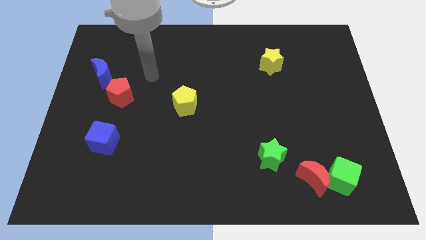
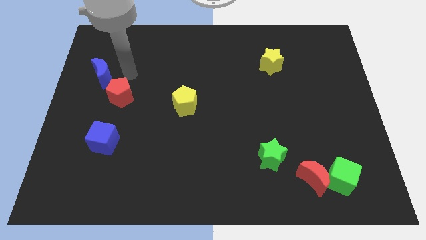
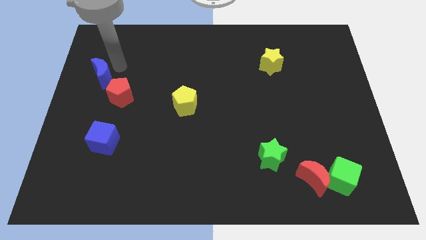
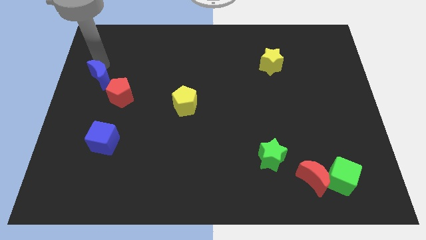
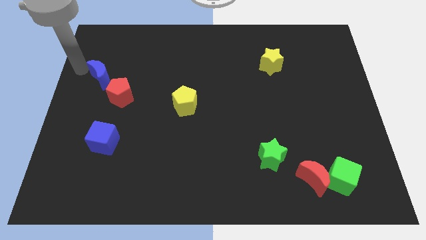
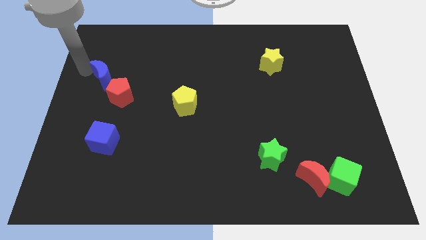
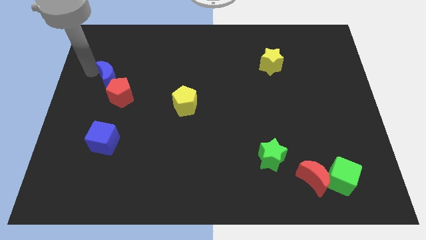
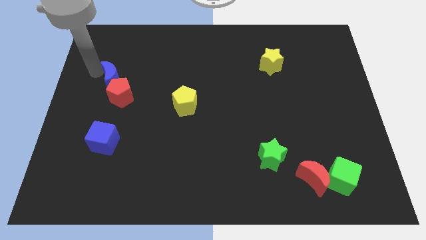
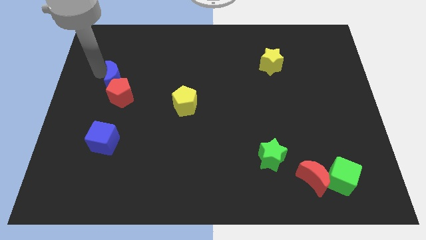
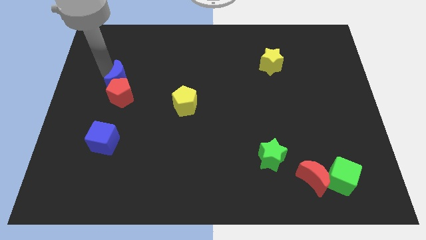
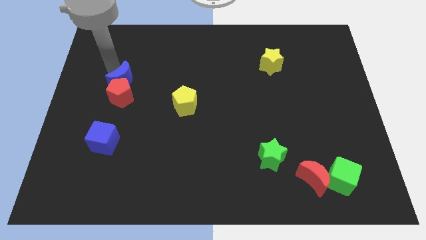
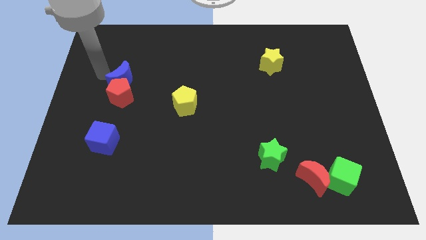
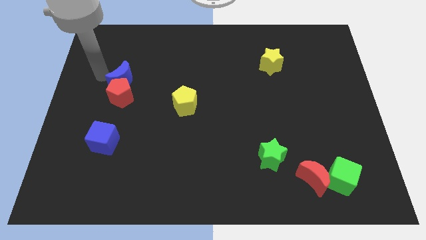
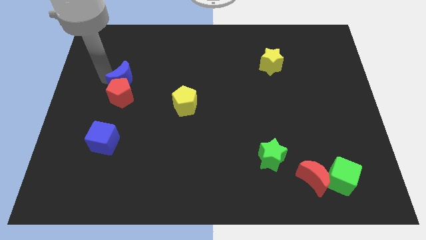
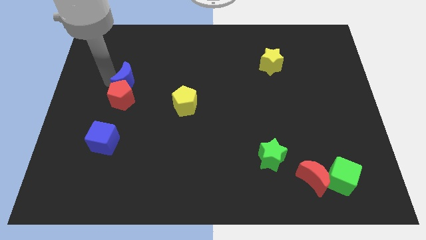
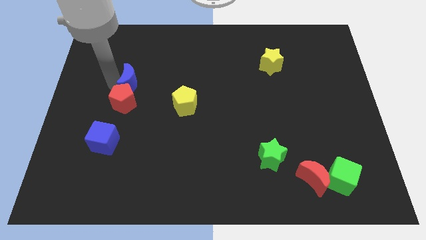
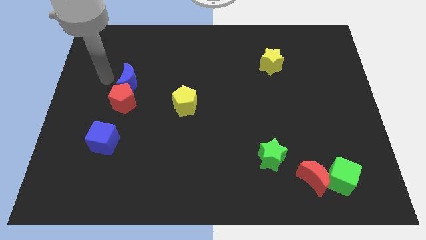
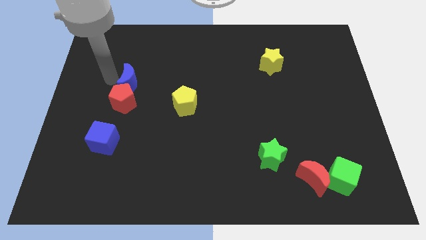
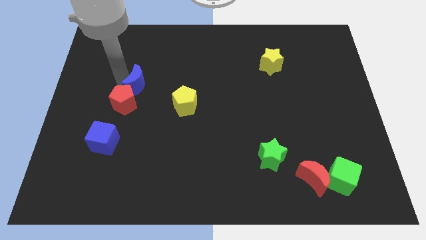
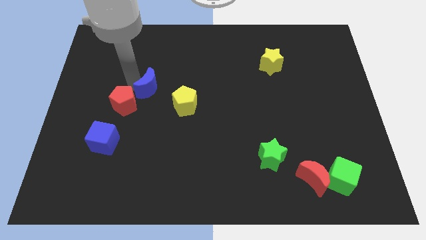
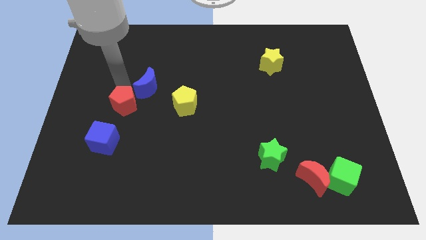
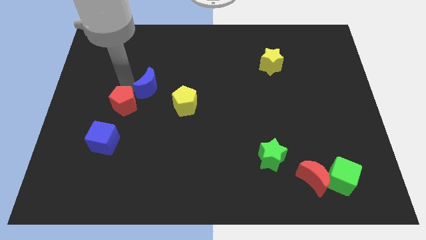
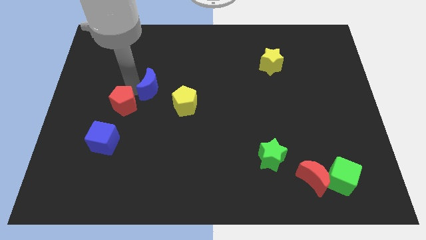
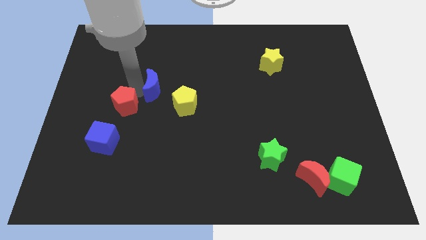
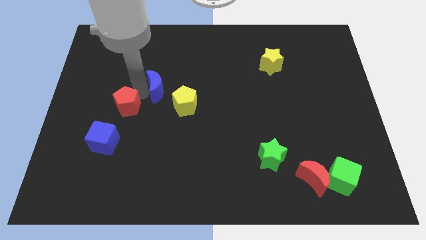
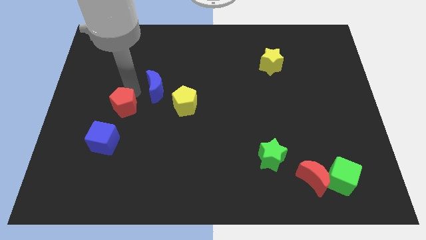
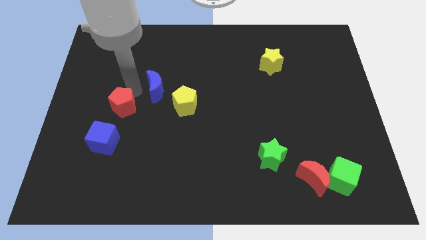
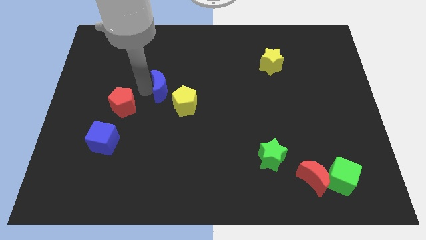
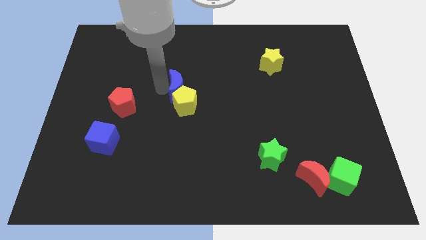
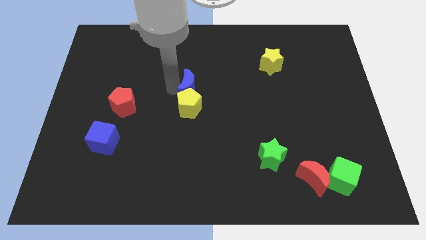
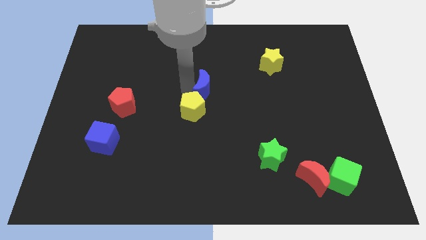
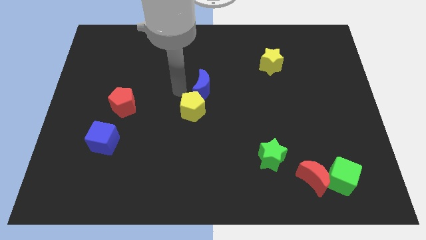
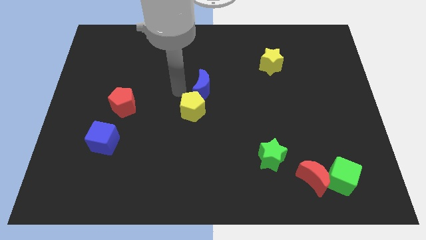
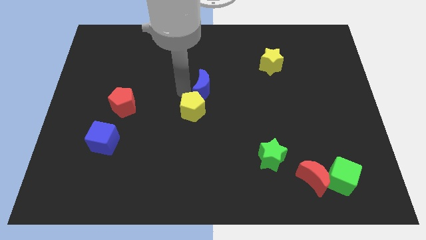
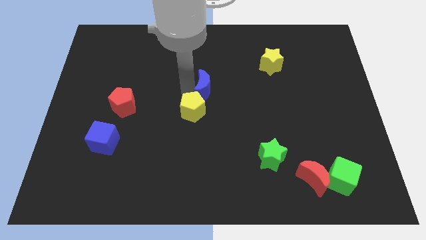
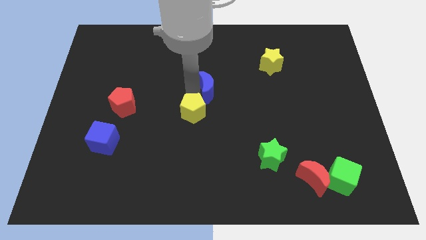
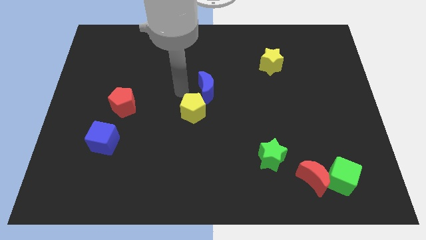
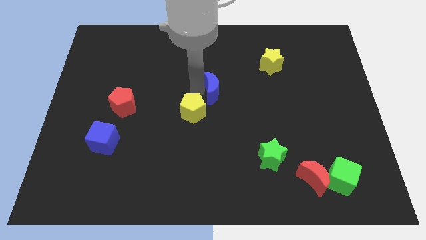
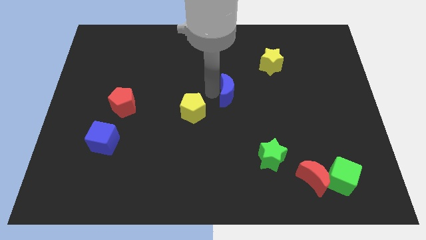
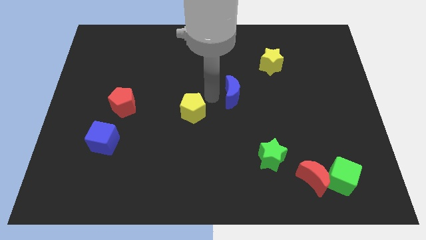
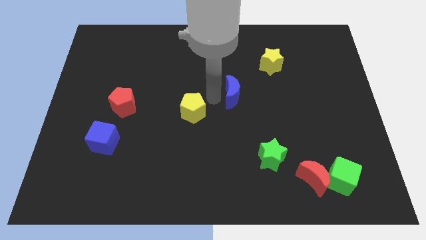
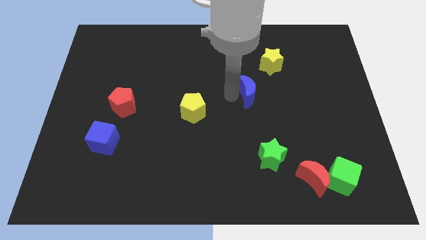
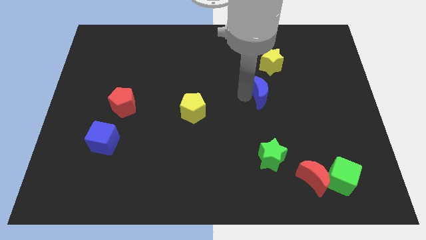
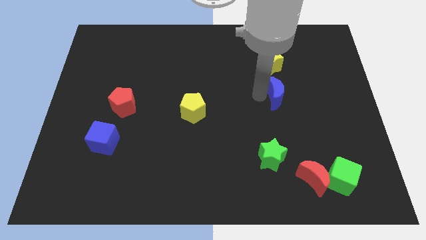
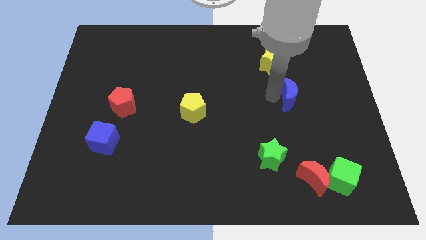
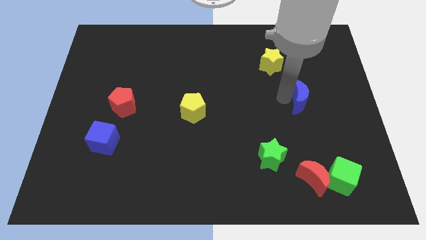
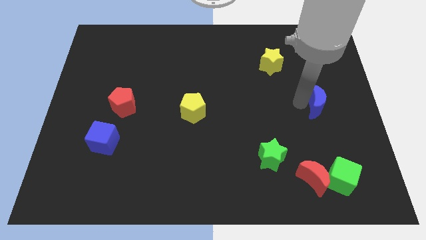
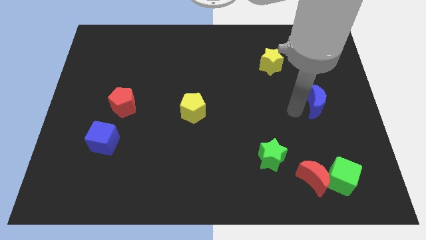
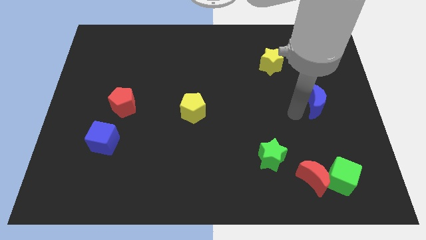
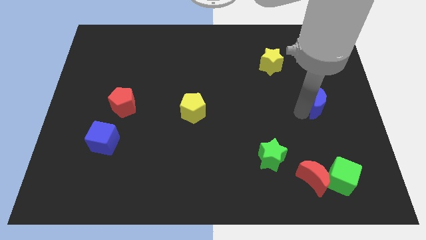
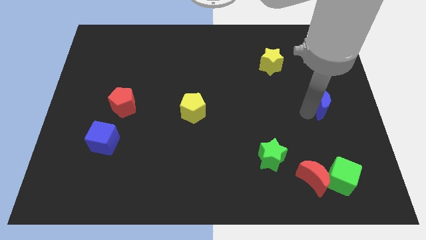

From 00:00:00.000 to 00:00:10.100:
move the blue moon to the right side

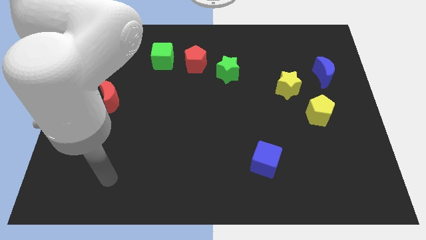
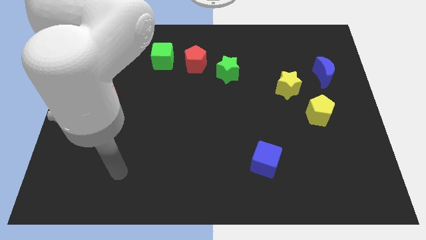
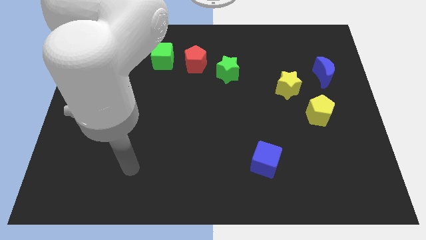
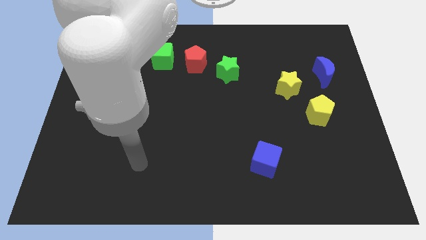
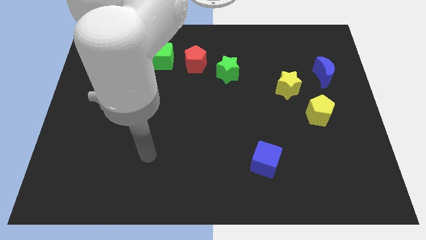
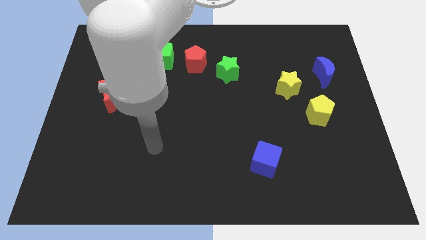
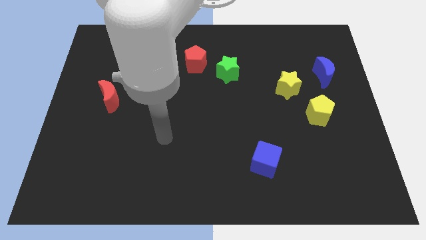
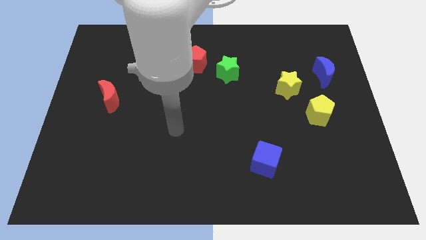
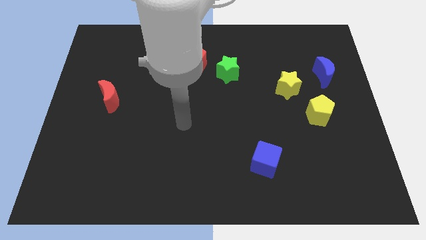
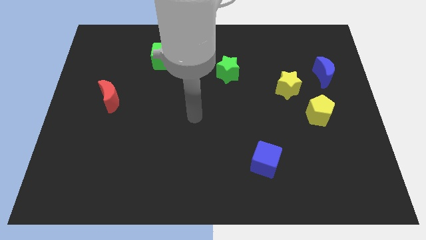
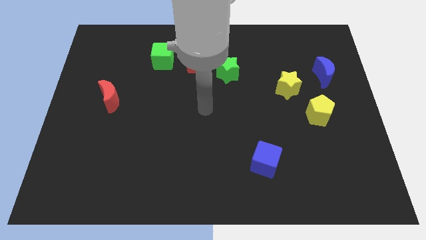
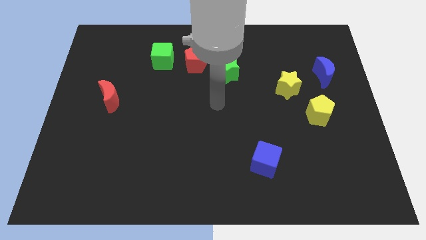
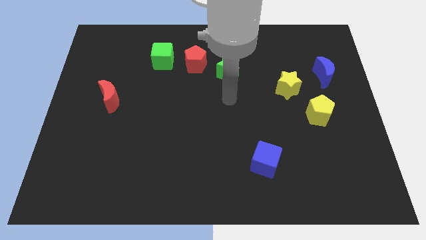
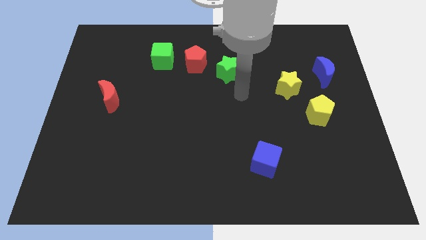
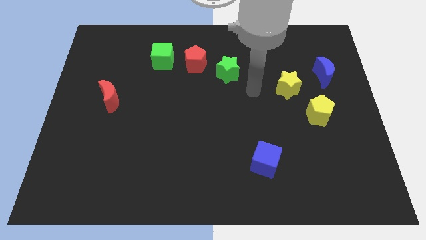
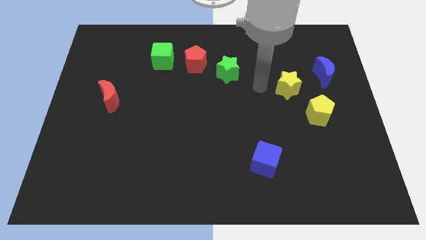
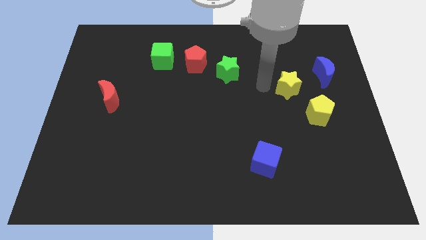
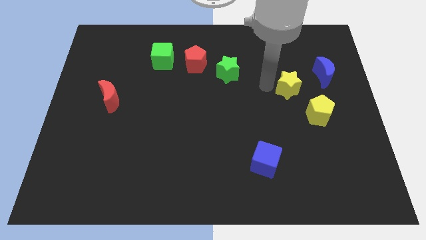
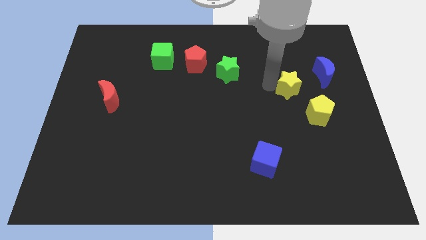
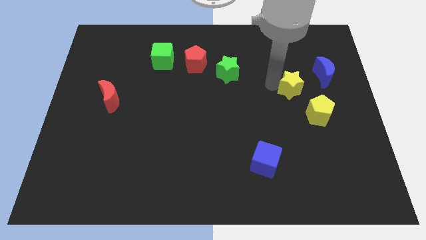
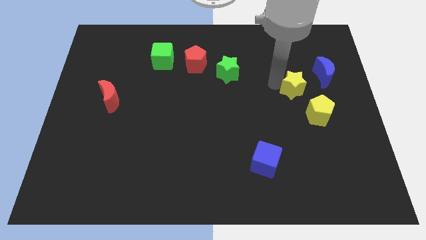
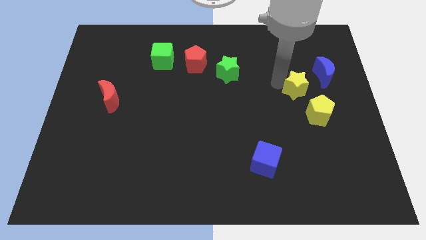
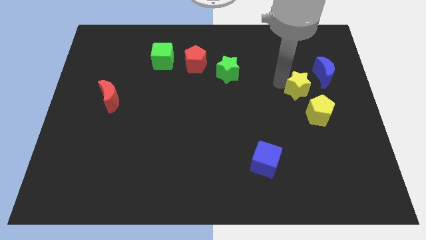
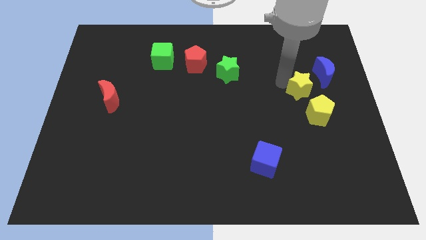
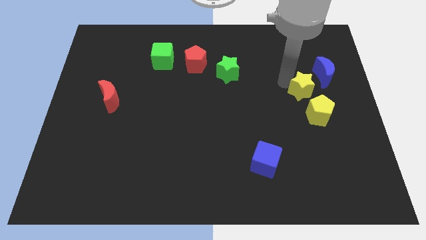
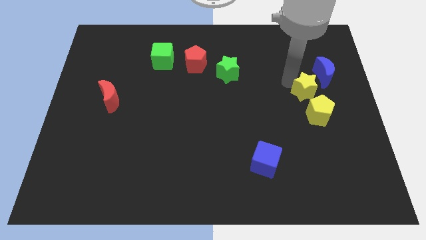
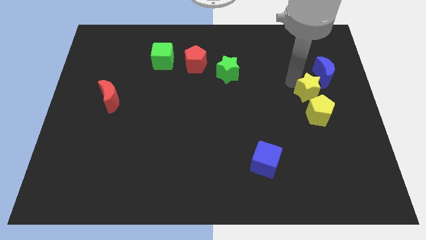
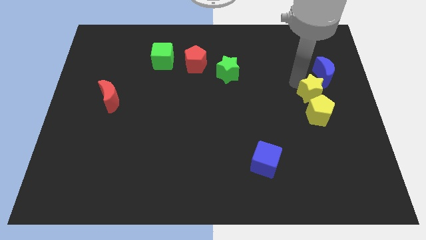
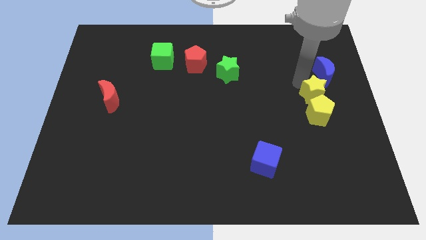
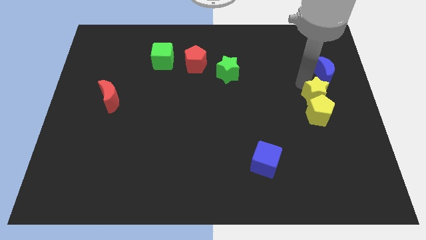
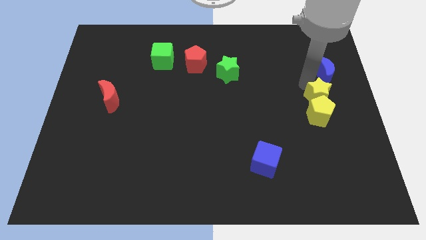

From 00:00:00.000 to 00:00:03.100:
push the yellow star to the right side of the board
